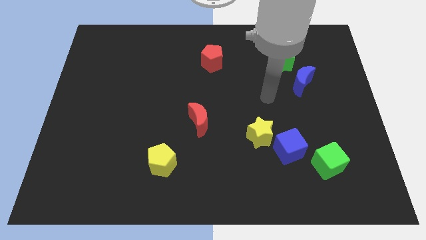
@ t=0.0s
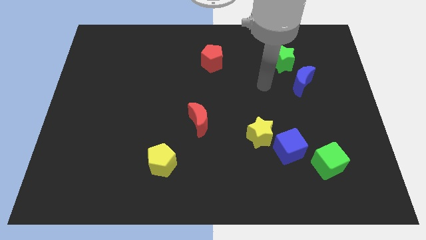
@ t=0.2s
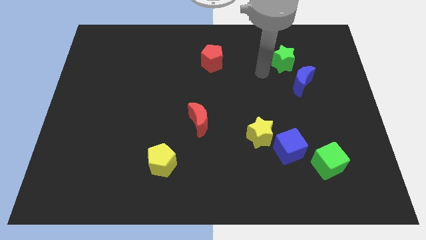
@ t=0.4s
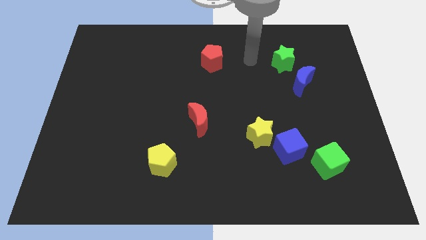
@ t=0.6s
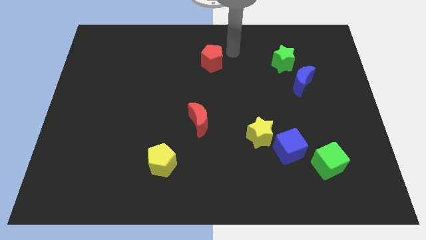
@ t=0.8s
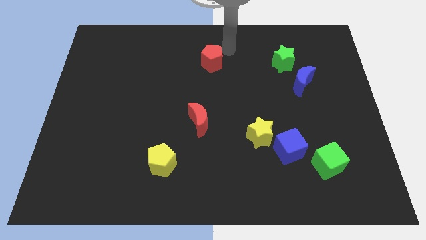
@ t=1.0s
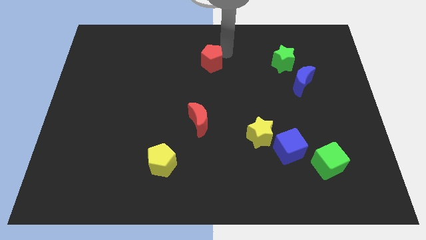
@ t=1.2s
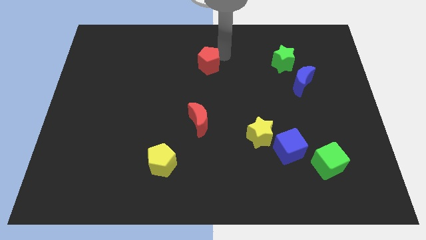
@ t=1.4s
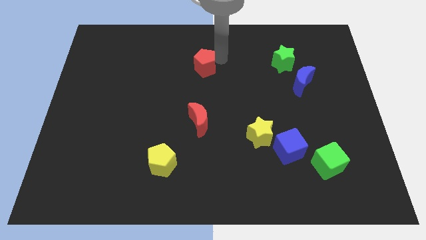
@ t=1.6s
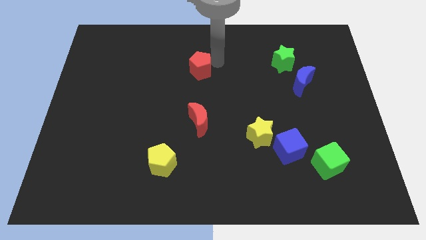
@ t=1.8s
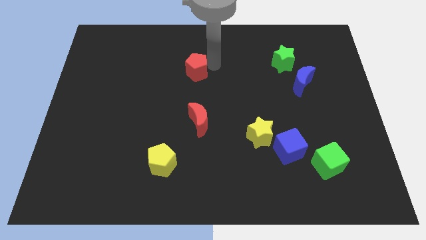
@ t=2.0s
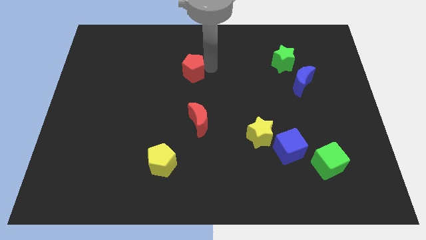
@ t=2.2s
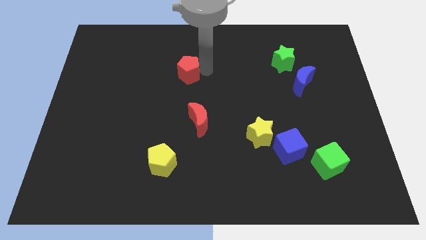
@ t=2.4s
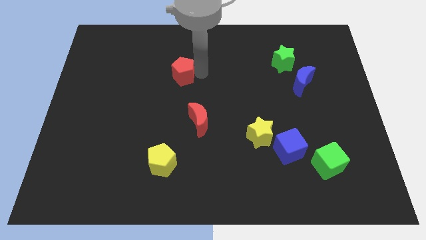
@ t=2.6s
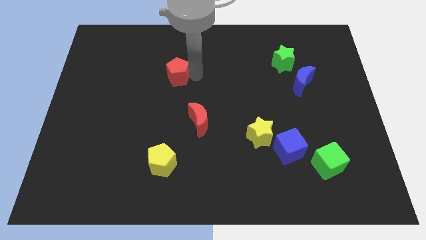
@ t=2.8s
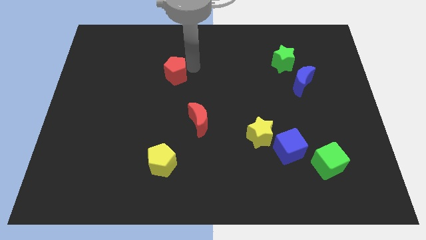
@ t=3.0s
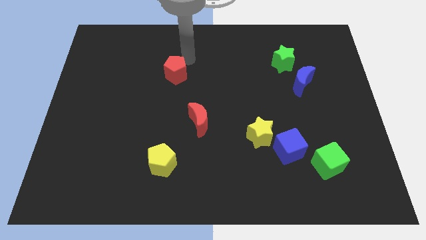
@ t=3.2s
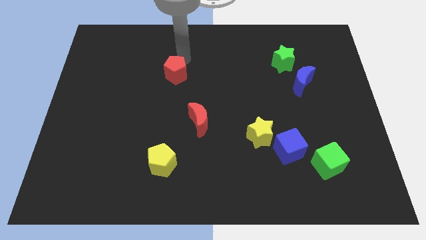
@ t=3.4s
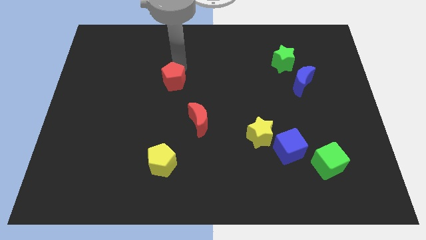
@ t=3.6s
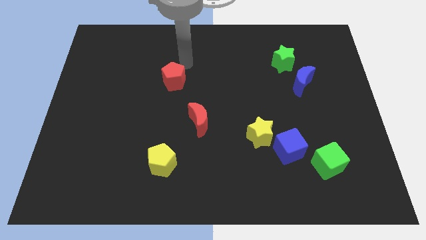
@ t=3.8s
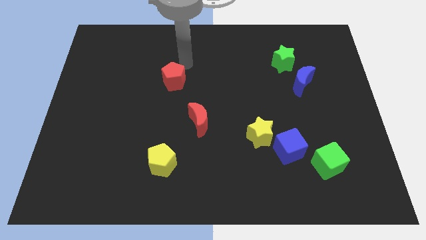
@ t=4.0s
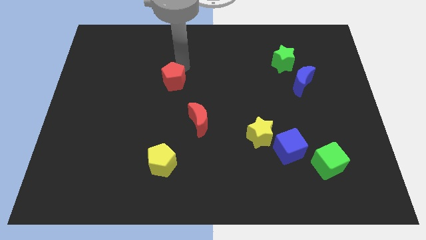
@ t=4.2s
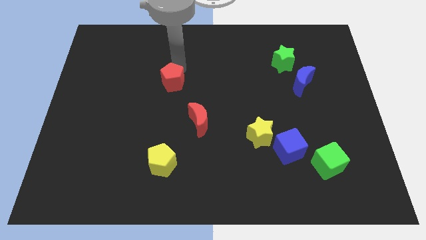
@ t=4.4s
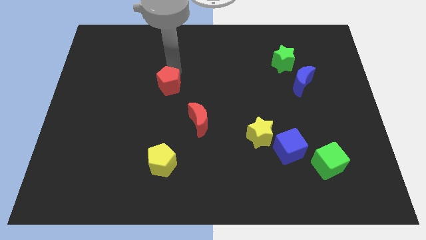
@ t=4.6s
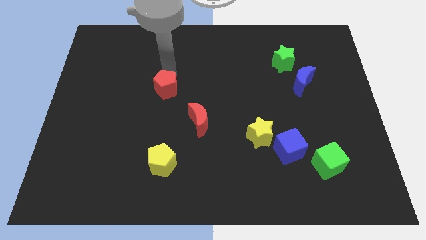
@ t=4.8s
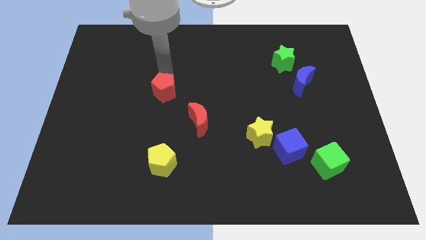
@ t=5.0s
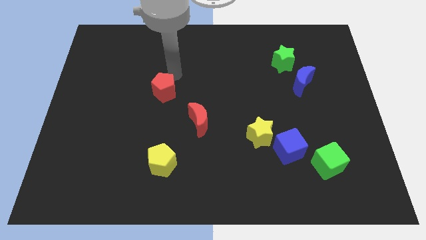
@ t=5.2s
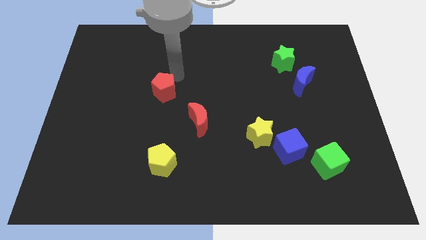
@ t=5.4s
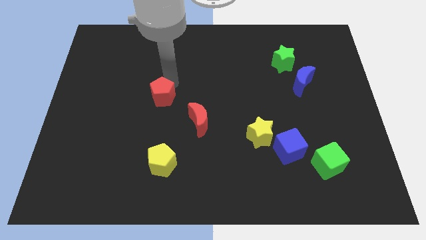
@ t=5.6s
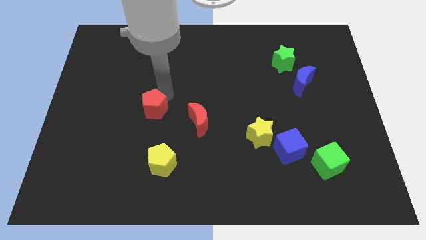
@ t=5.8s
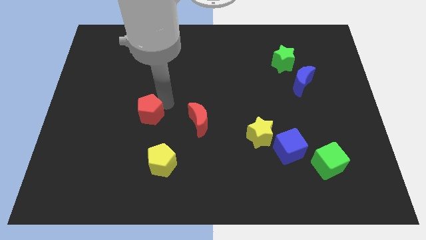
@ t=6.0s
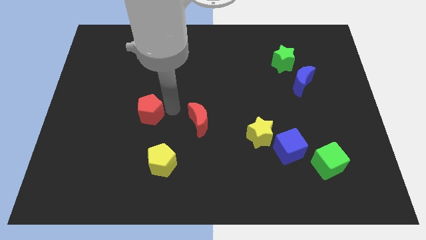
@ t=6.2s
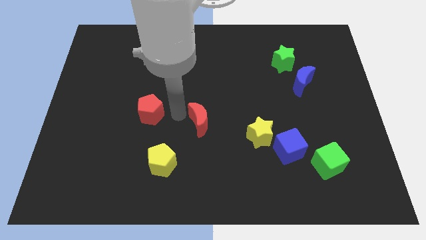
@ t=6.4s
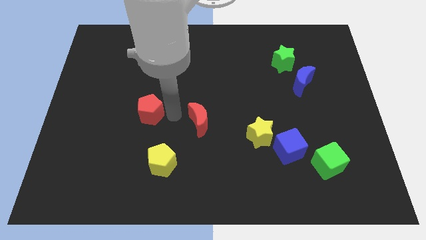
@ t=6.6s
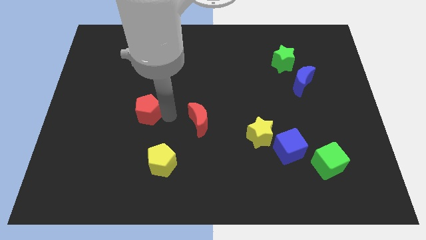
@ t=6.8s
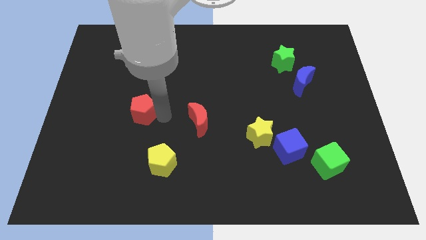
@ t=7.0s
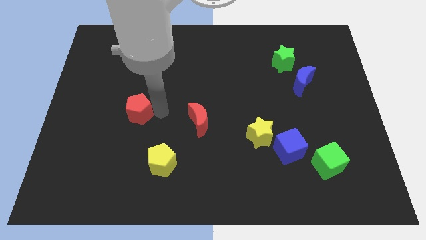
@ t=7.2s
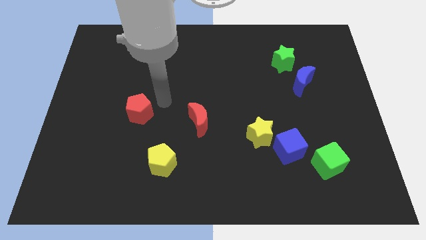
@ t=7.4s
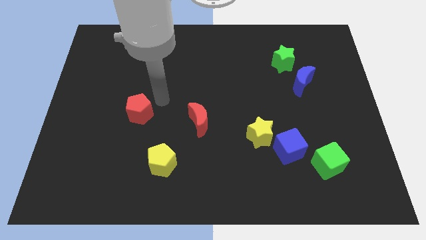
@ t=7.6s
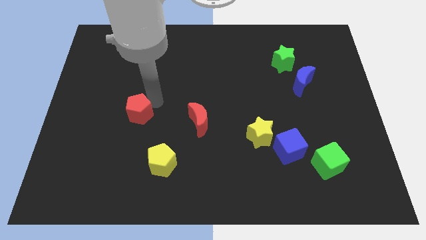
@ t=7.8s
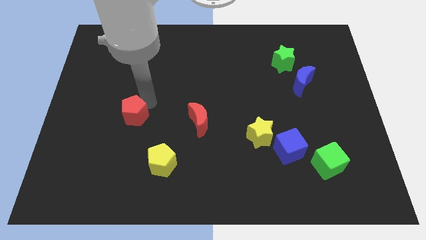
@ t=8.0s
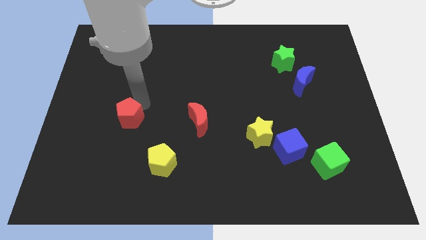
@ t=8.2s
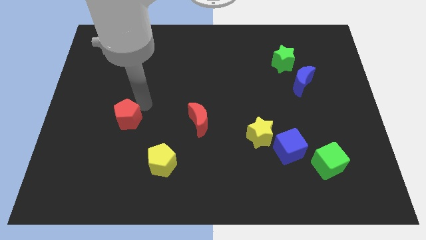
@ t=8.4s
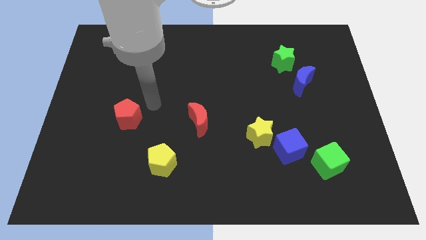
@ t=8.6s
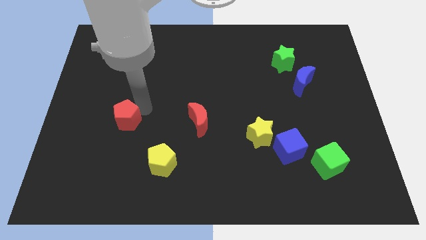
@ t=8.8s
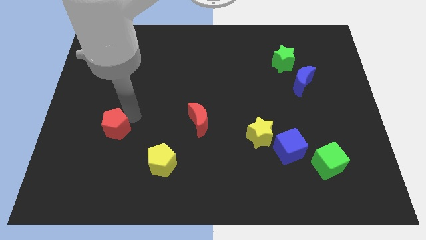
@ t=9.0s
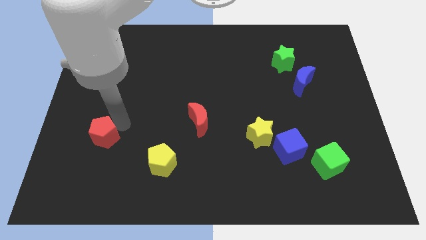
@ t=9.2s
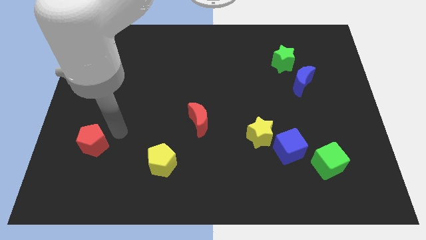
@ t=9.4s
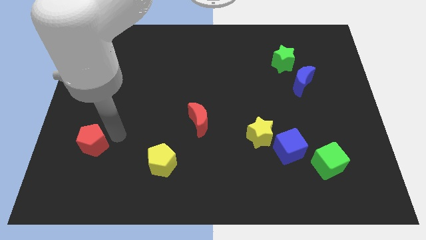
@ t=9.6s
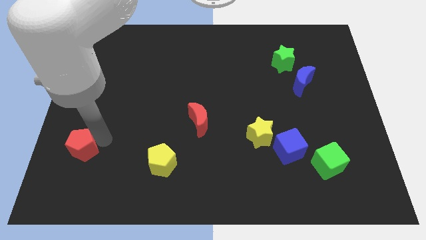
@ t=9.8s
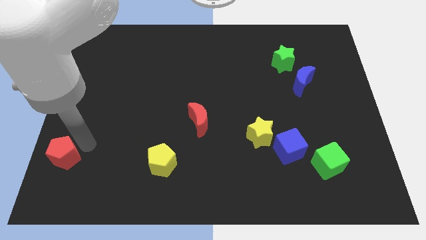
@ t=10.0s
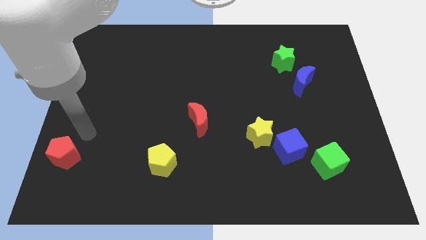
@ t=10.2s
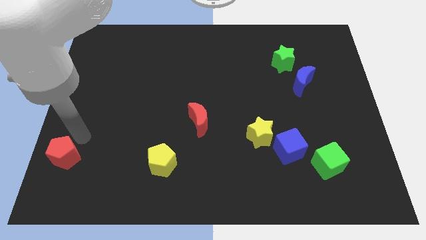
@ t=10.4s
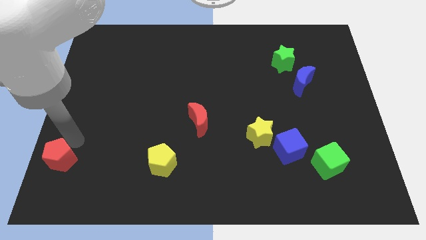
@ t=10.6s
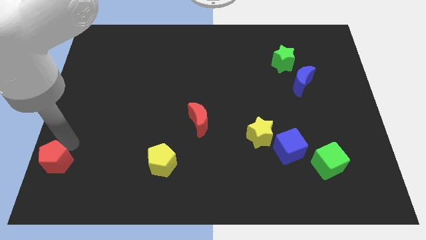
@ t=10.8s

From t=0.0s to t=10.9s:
move the red pentagon to the bottom left of the board

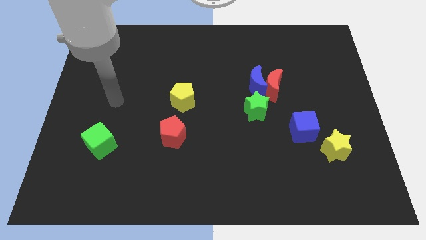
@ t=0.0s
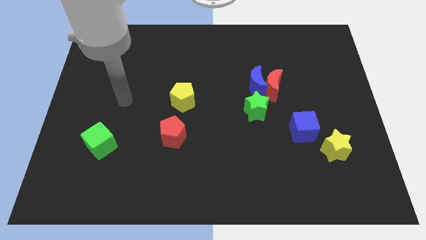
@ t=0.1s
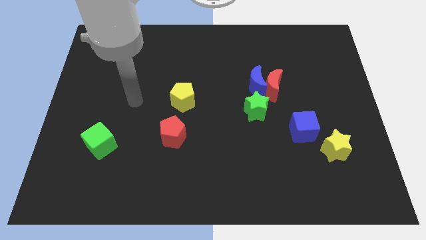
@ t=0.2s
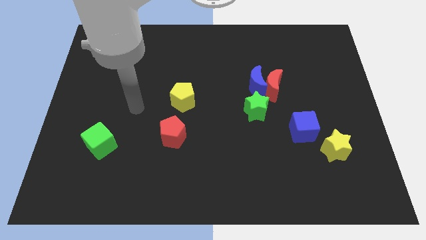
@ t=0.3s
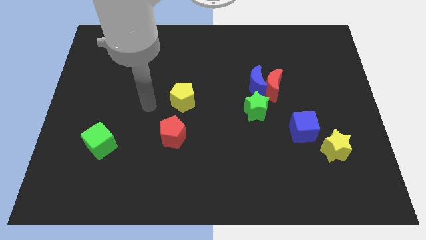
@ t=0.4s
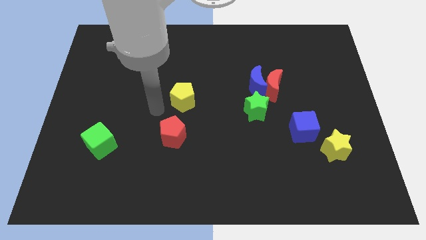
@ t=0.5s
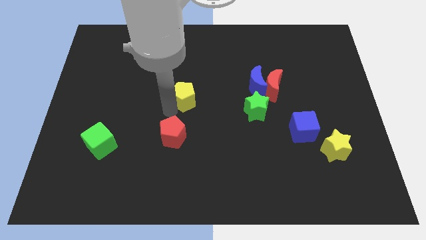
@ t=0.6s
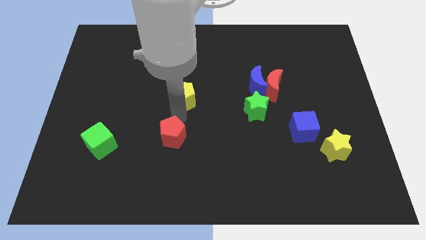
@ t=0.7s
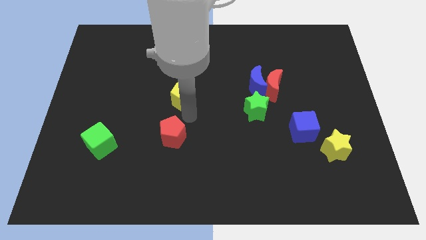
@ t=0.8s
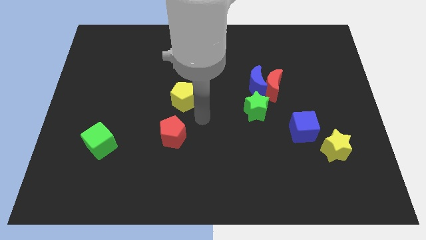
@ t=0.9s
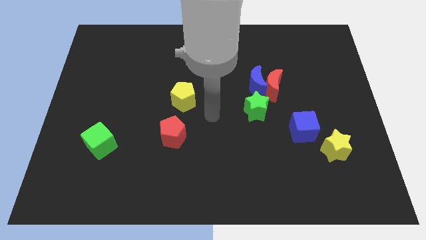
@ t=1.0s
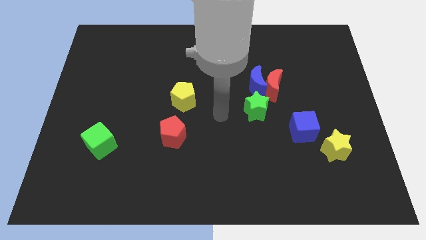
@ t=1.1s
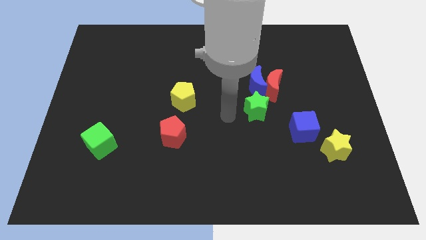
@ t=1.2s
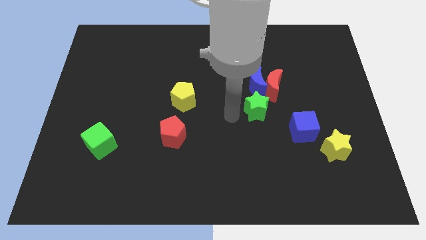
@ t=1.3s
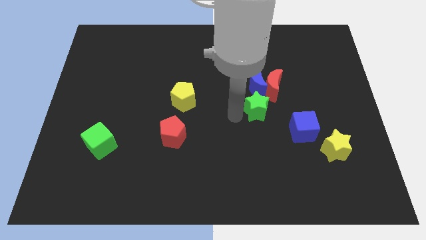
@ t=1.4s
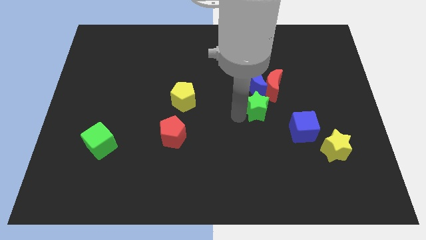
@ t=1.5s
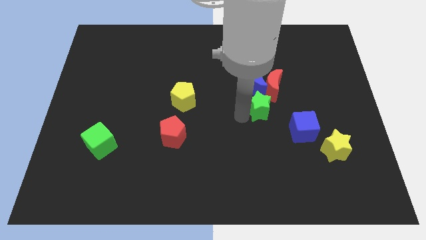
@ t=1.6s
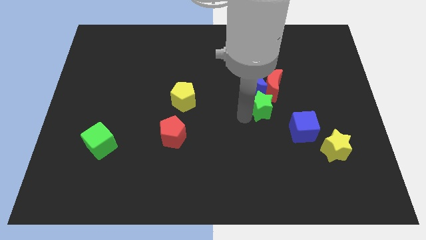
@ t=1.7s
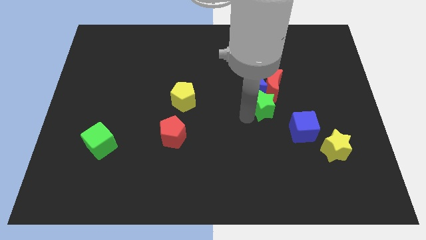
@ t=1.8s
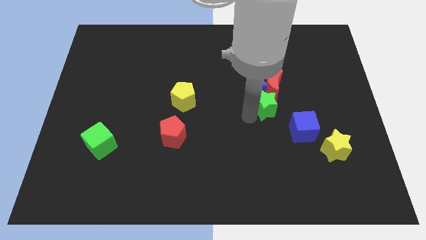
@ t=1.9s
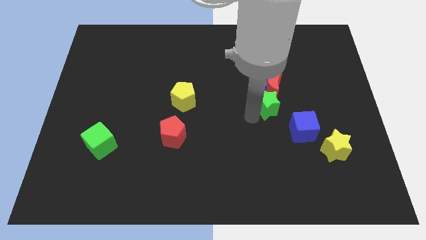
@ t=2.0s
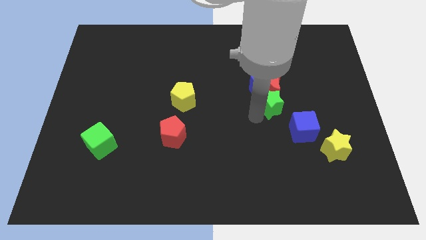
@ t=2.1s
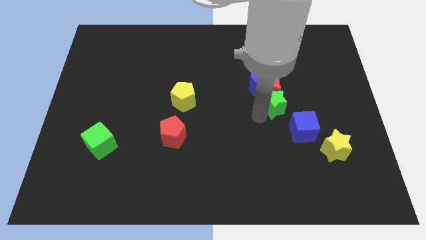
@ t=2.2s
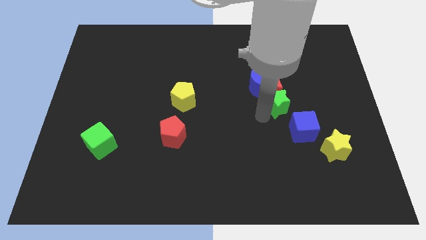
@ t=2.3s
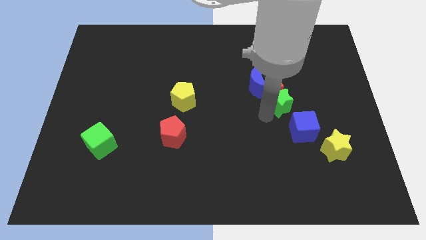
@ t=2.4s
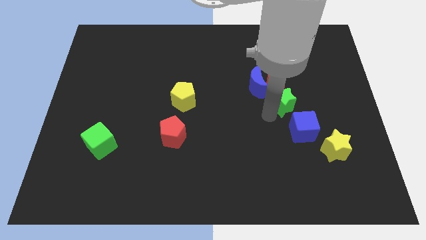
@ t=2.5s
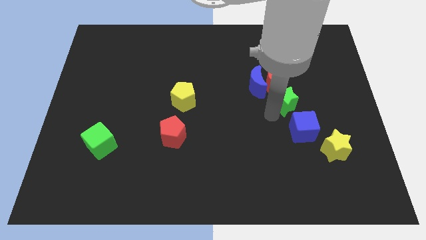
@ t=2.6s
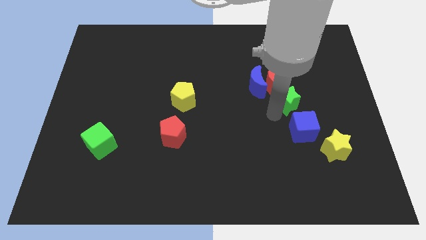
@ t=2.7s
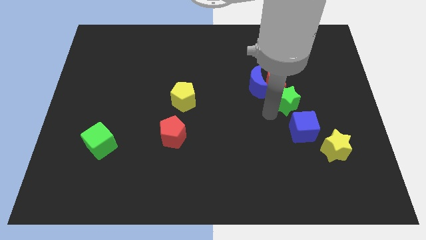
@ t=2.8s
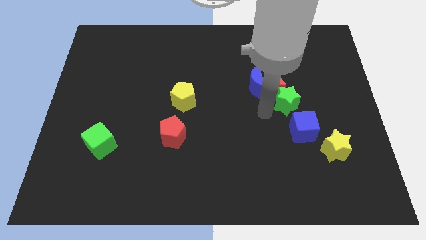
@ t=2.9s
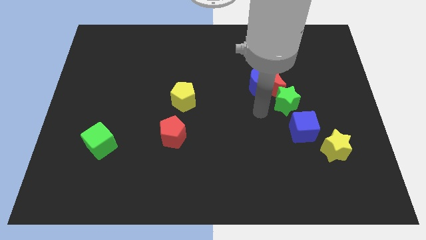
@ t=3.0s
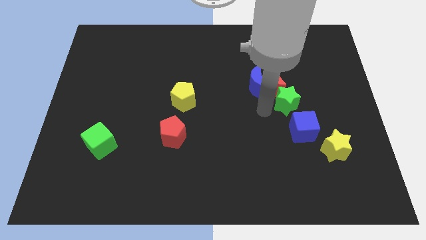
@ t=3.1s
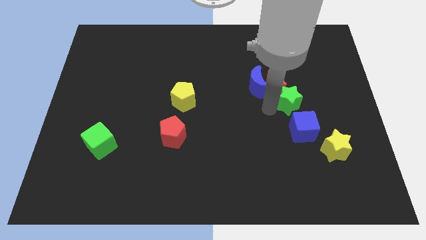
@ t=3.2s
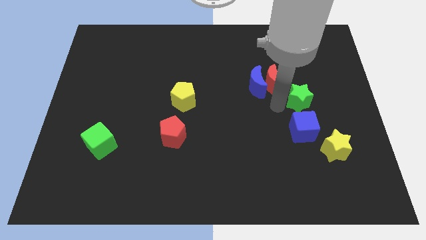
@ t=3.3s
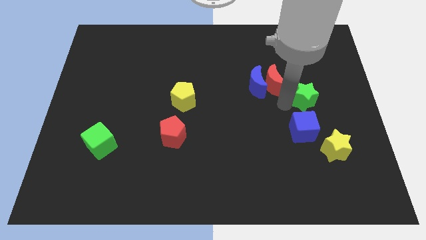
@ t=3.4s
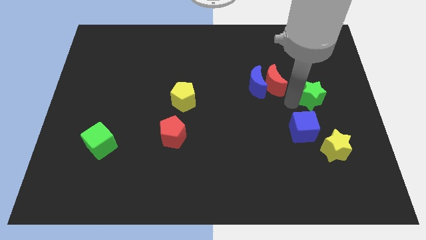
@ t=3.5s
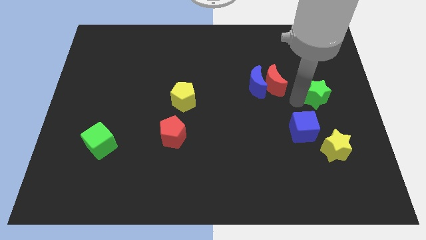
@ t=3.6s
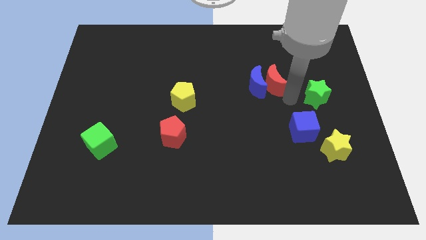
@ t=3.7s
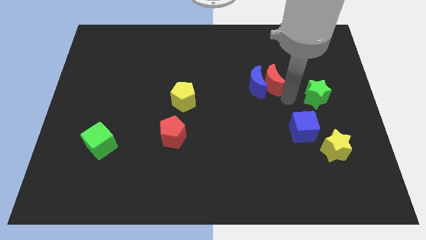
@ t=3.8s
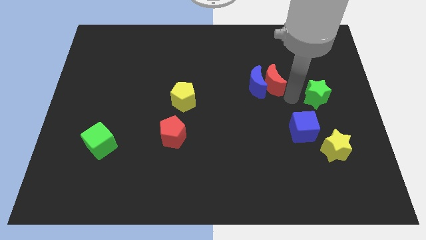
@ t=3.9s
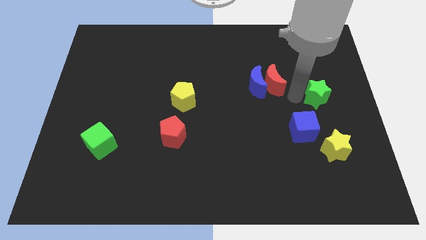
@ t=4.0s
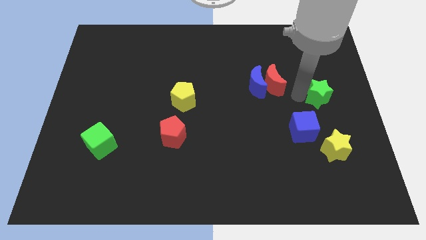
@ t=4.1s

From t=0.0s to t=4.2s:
push the green star to the right side
